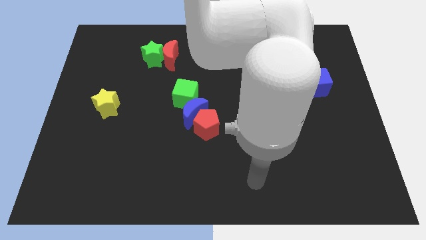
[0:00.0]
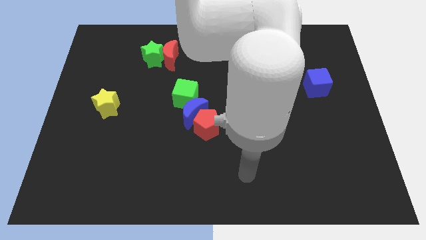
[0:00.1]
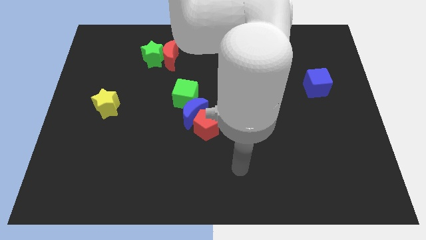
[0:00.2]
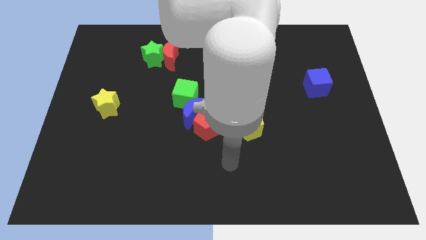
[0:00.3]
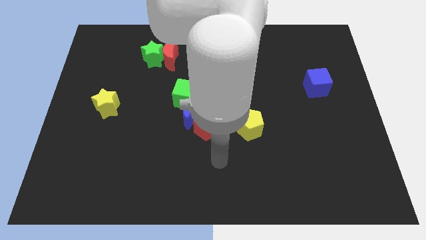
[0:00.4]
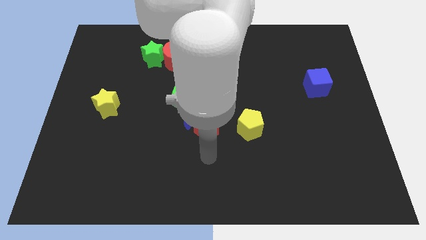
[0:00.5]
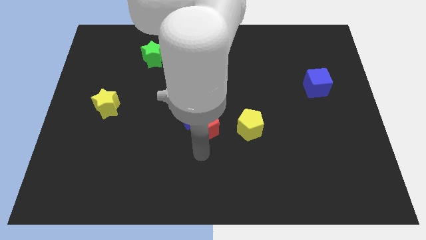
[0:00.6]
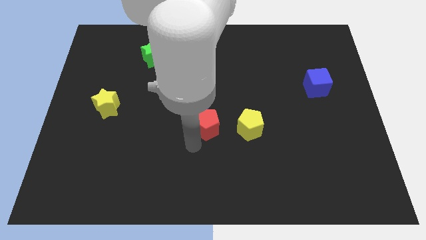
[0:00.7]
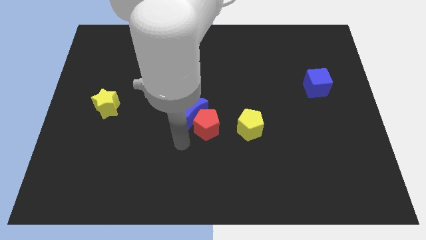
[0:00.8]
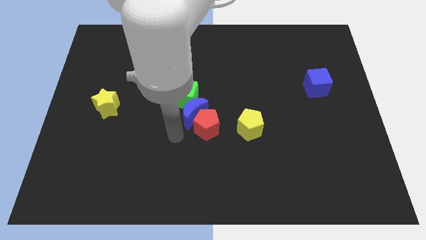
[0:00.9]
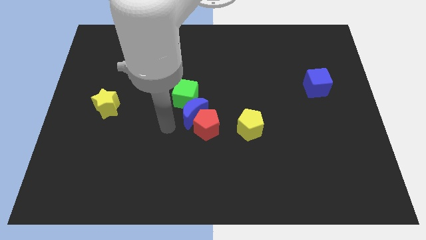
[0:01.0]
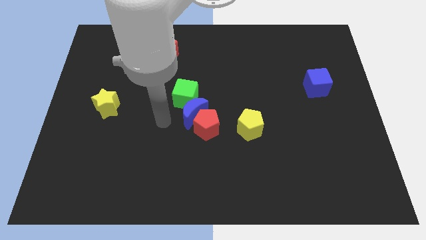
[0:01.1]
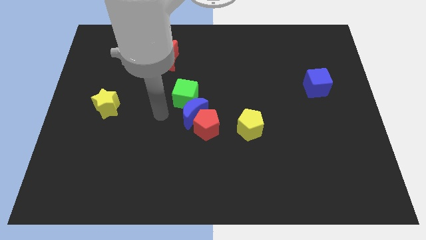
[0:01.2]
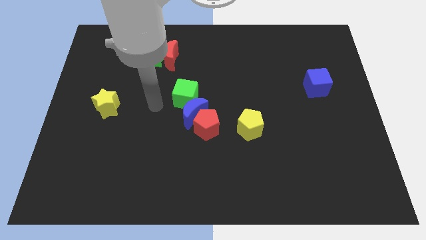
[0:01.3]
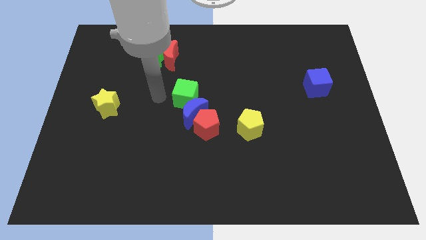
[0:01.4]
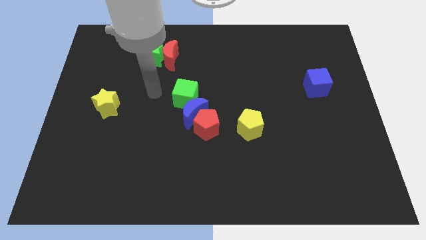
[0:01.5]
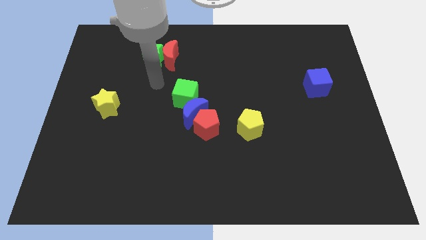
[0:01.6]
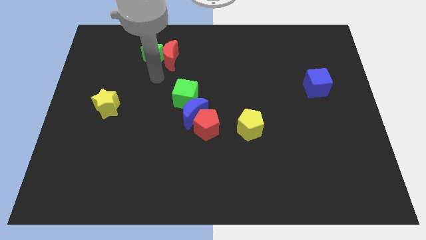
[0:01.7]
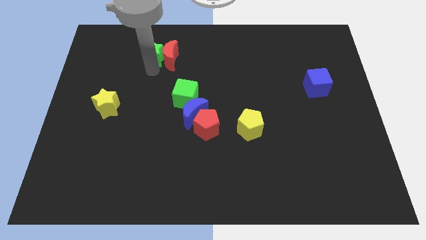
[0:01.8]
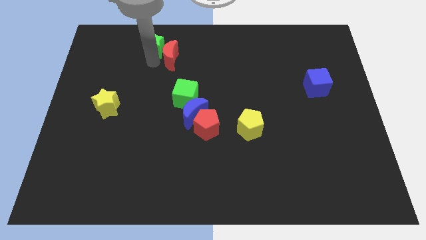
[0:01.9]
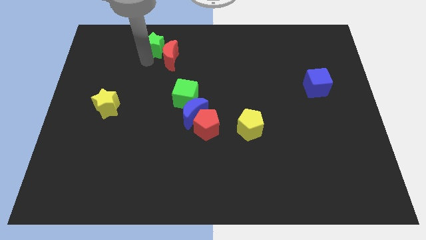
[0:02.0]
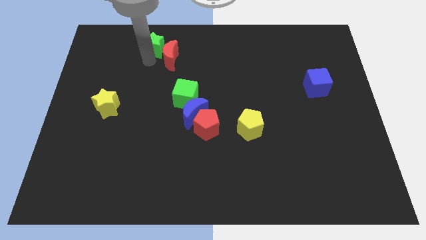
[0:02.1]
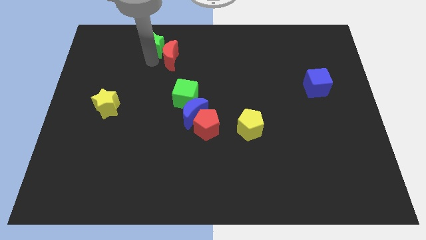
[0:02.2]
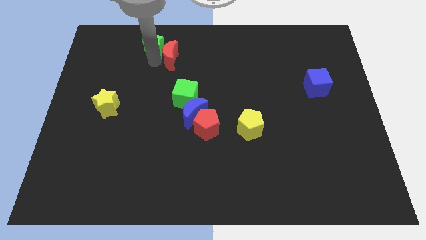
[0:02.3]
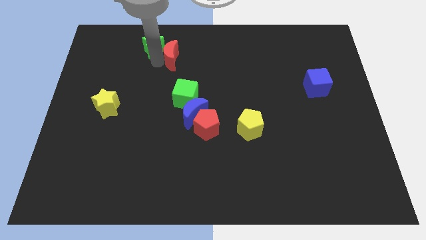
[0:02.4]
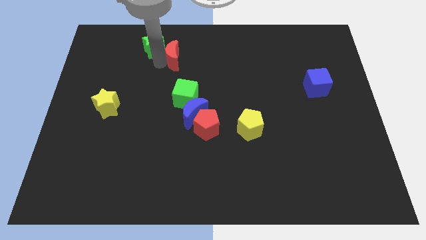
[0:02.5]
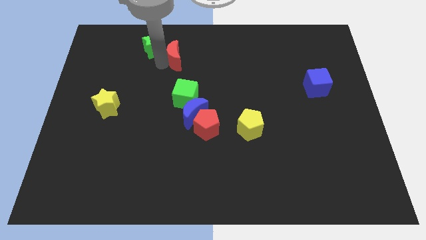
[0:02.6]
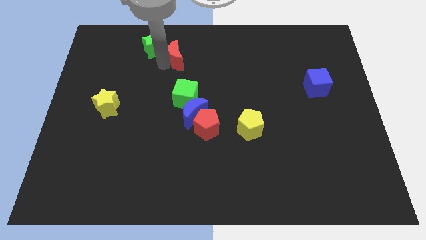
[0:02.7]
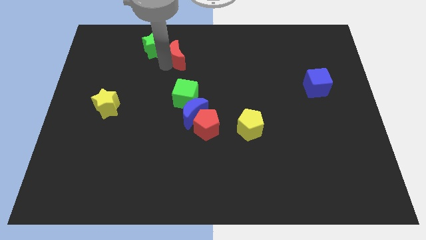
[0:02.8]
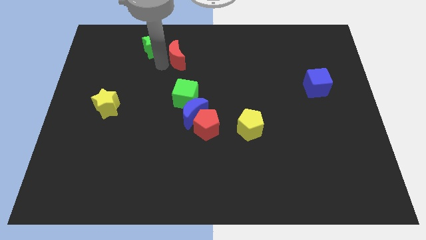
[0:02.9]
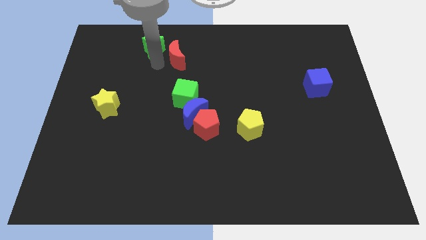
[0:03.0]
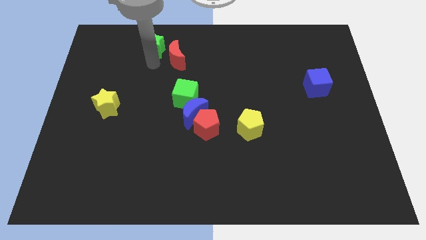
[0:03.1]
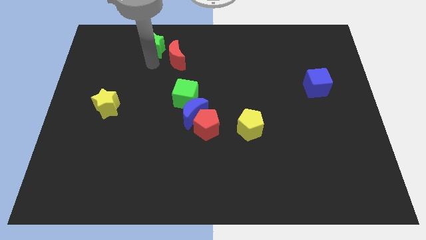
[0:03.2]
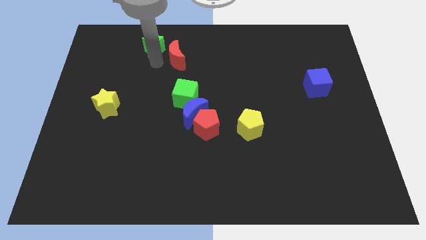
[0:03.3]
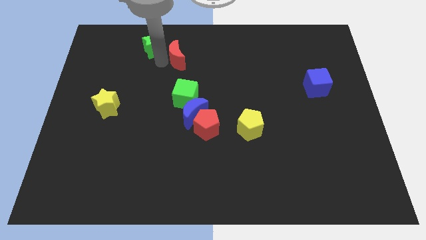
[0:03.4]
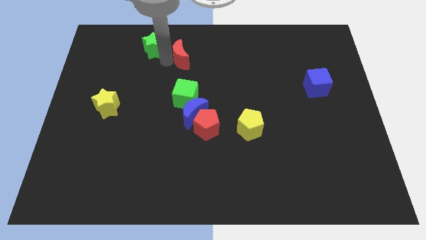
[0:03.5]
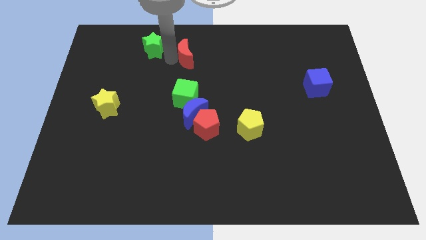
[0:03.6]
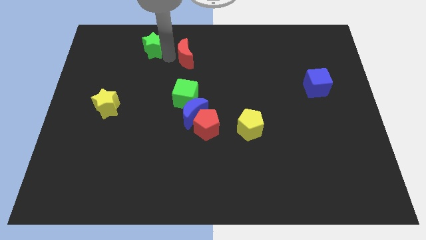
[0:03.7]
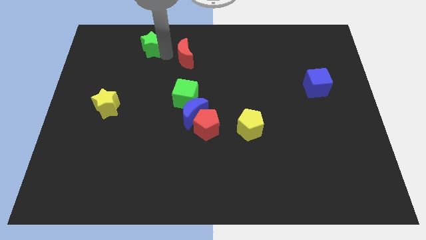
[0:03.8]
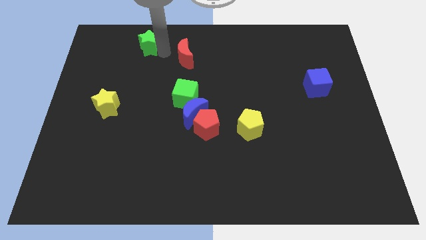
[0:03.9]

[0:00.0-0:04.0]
pull the red moon apart from the green star

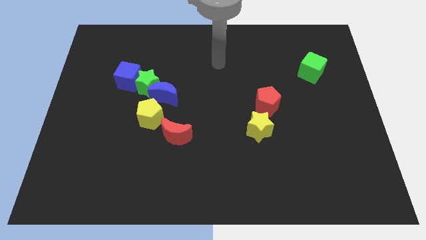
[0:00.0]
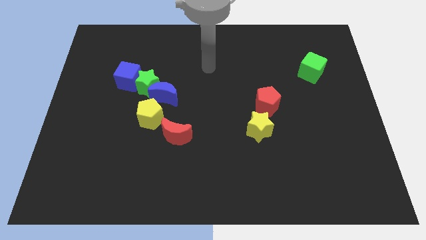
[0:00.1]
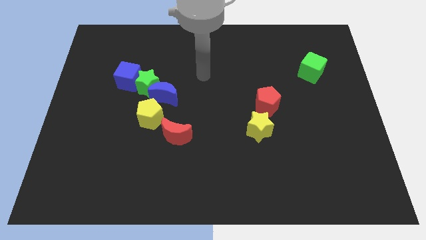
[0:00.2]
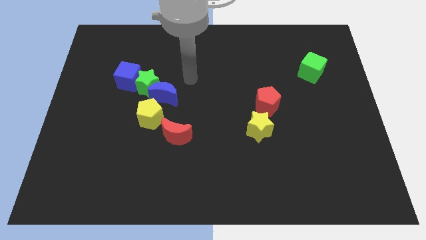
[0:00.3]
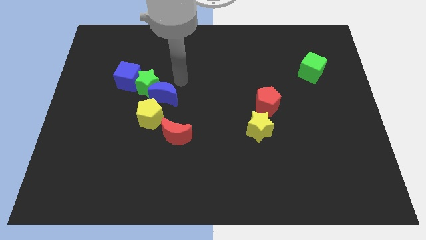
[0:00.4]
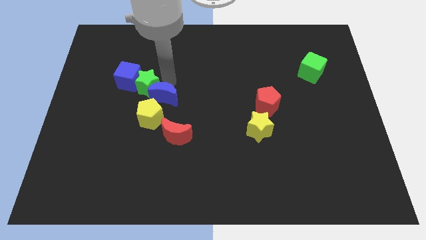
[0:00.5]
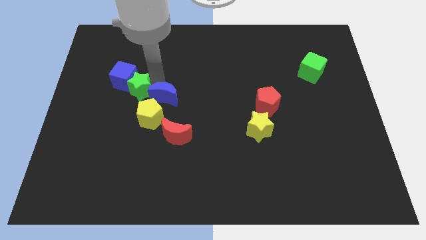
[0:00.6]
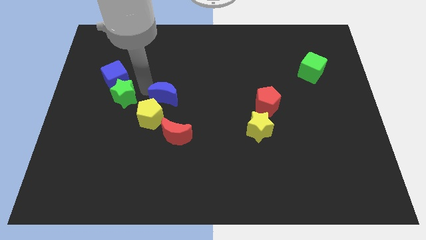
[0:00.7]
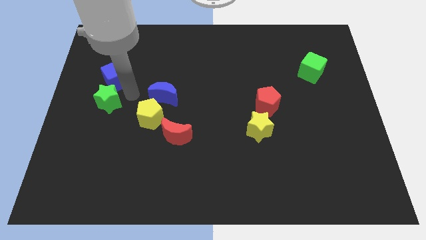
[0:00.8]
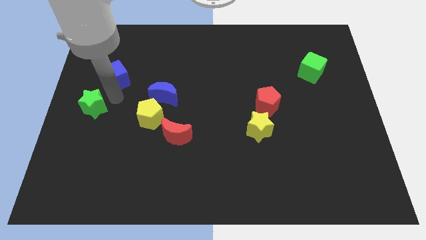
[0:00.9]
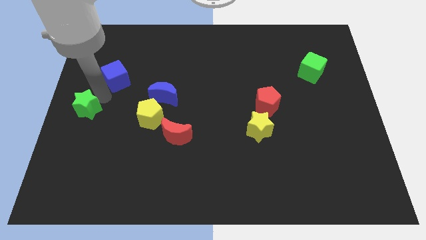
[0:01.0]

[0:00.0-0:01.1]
separate the blue cube from the green star

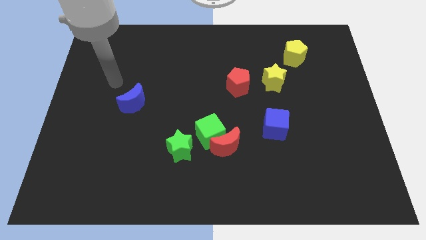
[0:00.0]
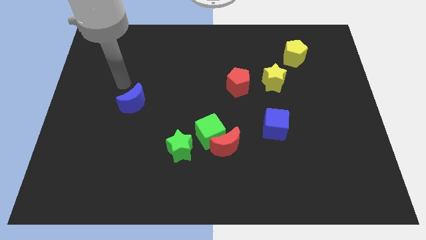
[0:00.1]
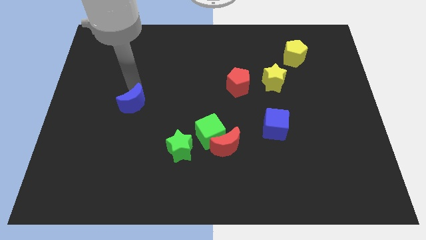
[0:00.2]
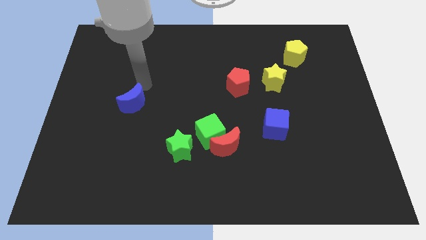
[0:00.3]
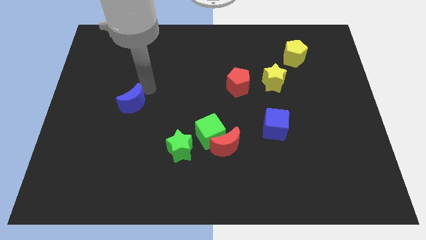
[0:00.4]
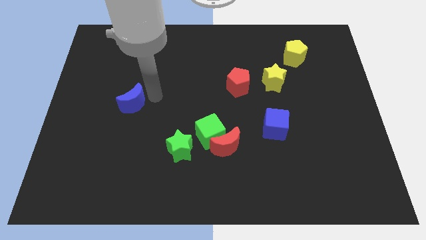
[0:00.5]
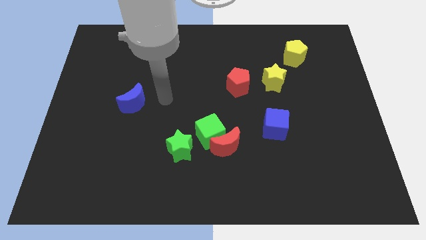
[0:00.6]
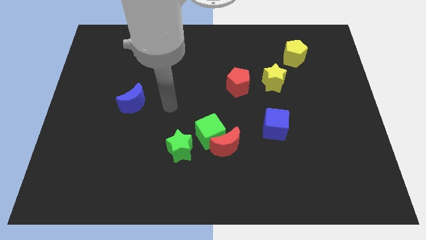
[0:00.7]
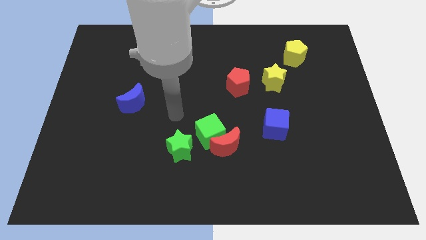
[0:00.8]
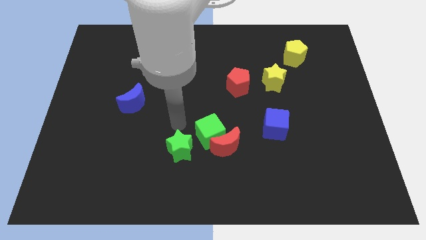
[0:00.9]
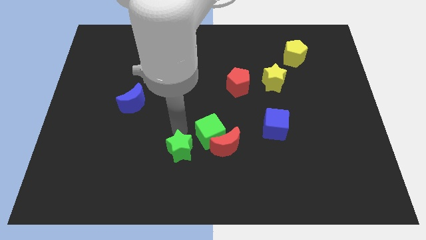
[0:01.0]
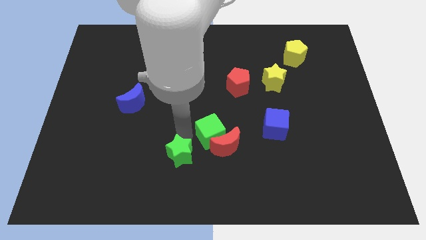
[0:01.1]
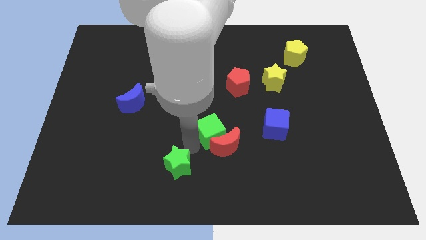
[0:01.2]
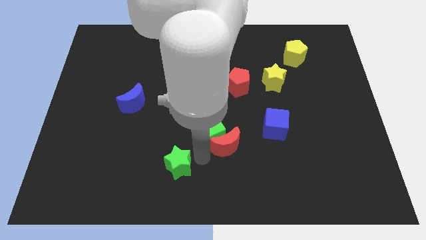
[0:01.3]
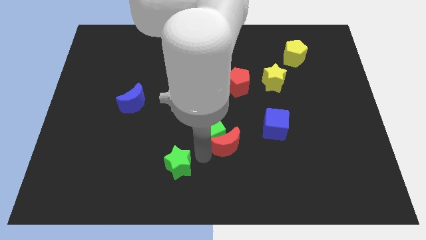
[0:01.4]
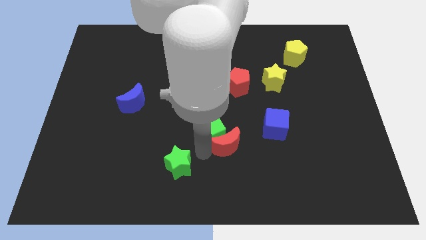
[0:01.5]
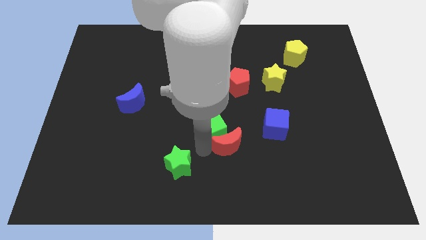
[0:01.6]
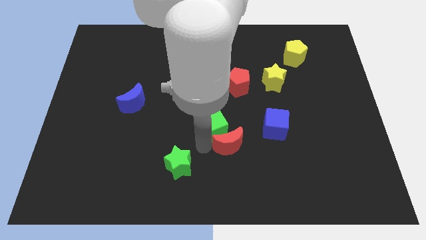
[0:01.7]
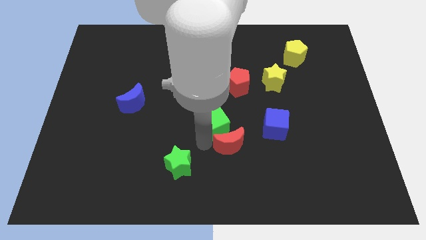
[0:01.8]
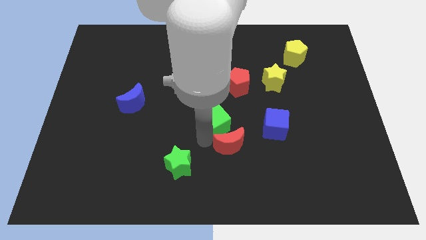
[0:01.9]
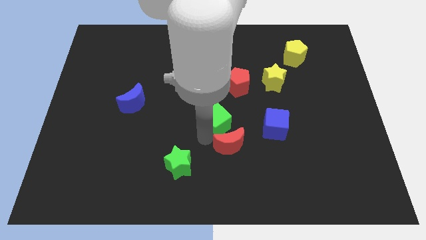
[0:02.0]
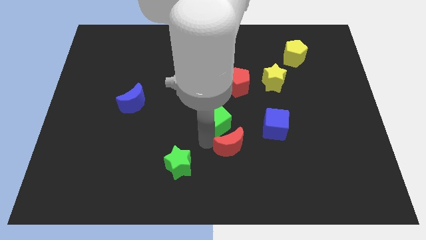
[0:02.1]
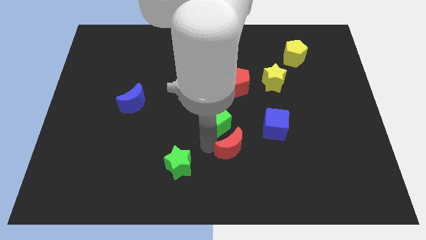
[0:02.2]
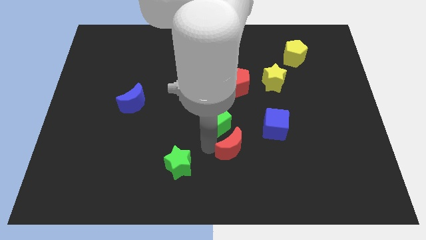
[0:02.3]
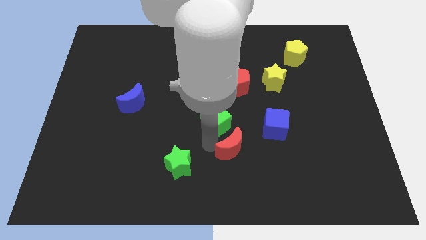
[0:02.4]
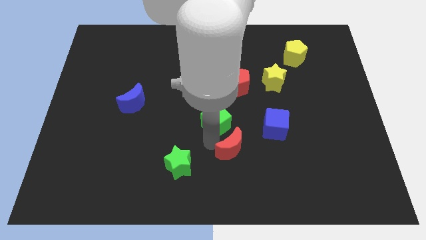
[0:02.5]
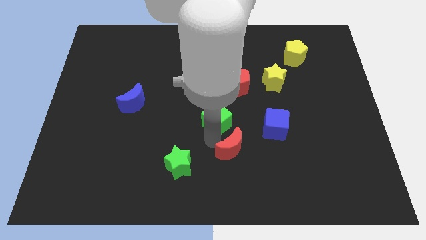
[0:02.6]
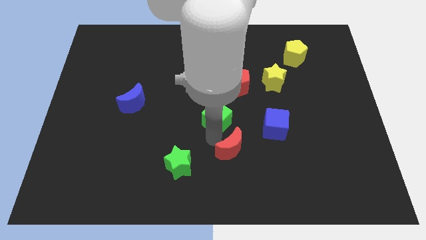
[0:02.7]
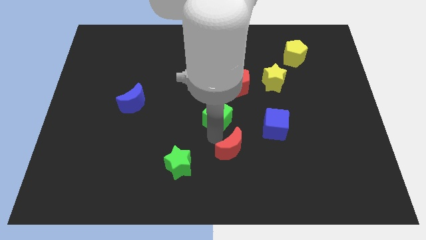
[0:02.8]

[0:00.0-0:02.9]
pull the green cube apart from the red moon and green star

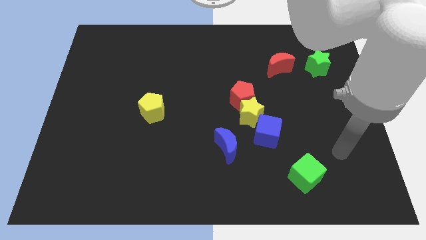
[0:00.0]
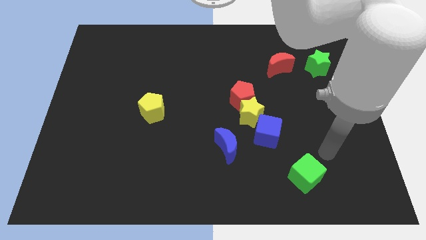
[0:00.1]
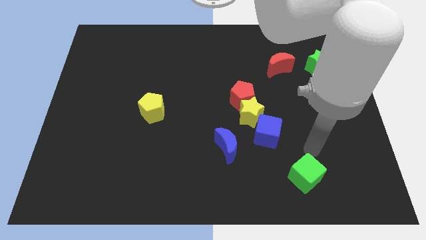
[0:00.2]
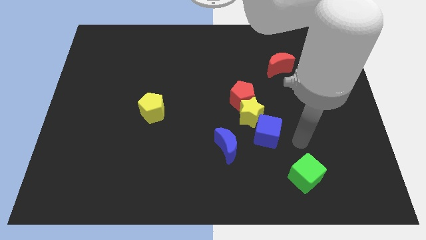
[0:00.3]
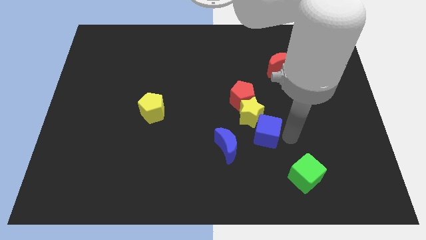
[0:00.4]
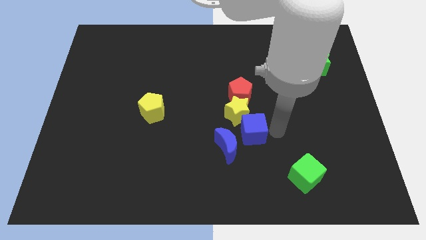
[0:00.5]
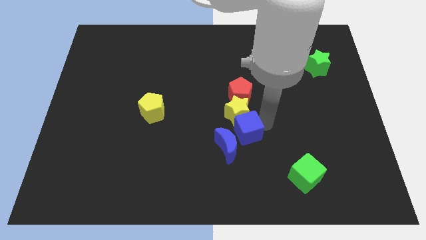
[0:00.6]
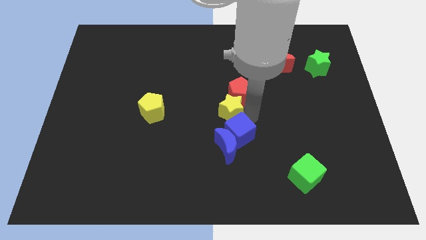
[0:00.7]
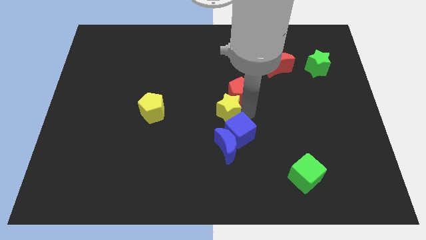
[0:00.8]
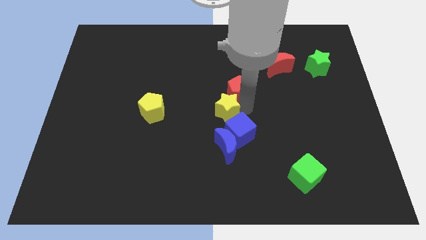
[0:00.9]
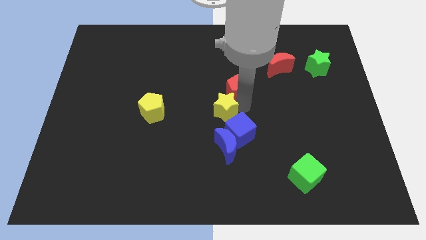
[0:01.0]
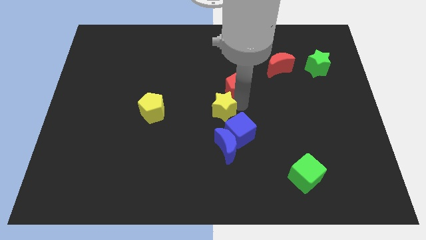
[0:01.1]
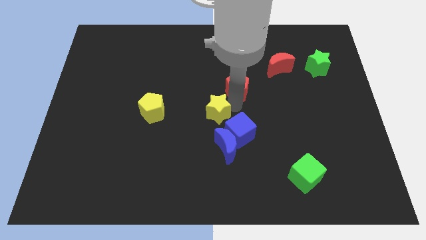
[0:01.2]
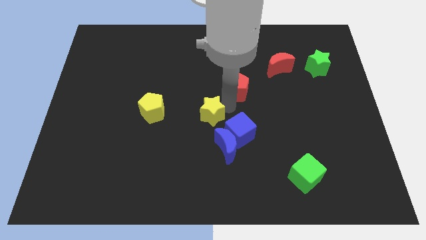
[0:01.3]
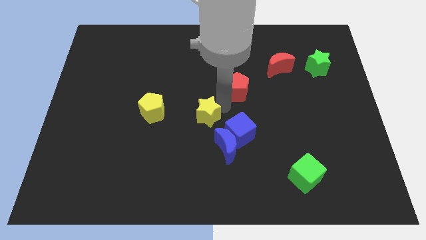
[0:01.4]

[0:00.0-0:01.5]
move the red pentagon away from the yellow star
